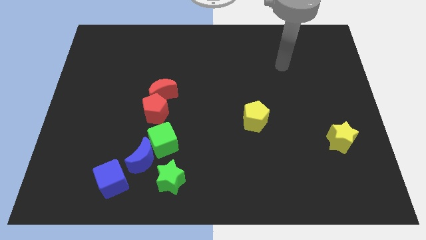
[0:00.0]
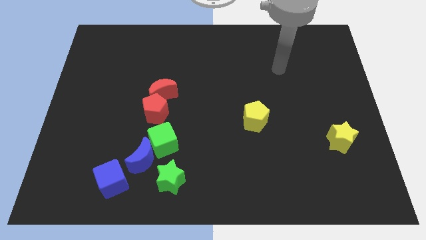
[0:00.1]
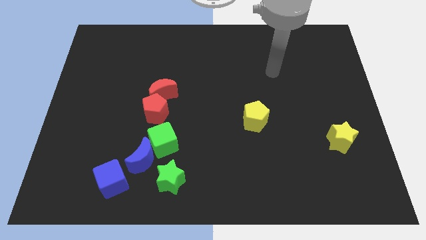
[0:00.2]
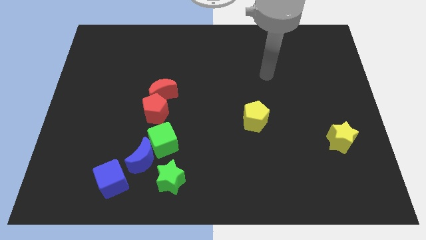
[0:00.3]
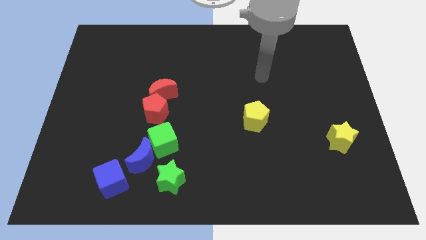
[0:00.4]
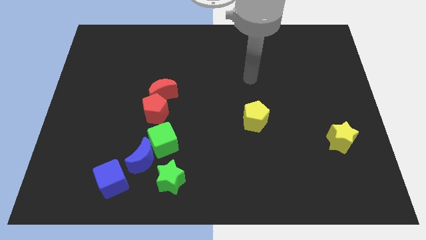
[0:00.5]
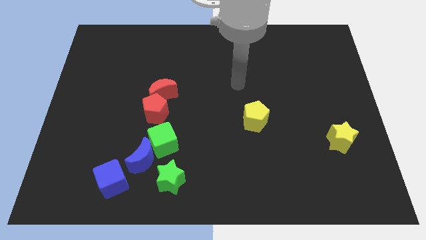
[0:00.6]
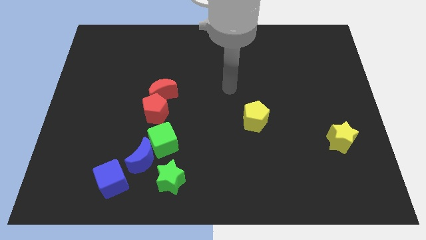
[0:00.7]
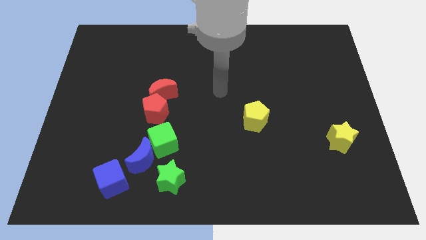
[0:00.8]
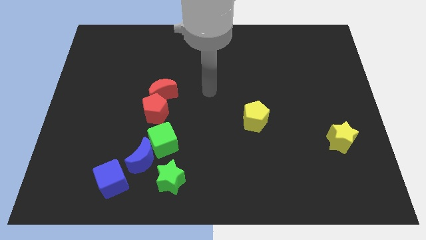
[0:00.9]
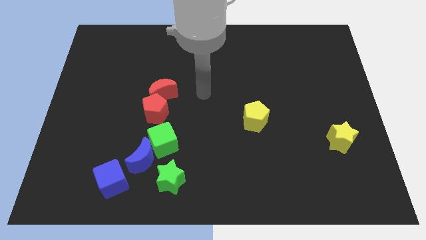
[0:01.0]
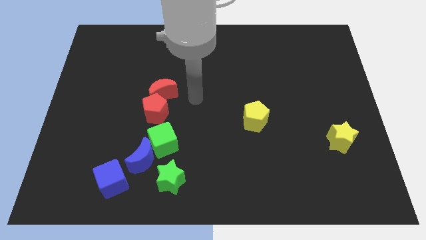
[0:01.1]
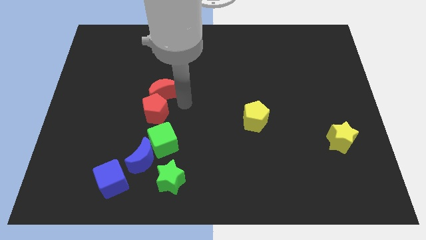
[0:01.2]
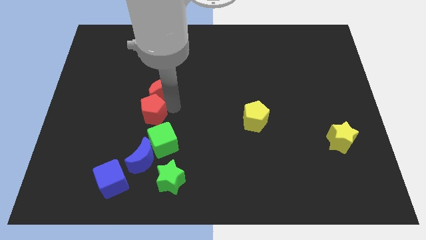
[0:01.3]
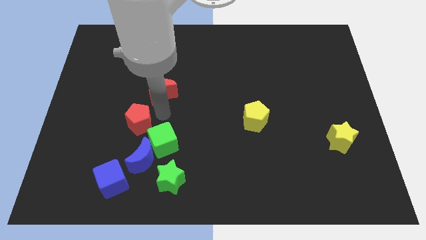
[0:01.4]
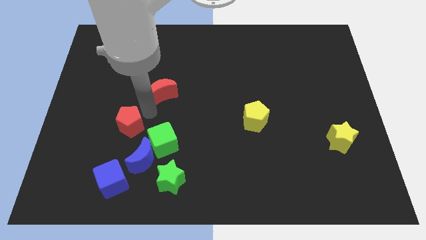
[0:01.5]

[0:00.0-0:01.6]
separate the red moon from the red pentagon

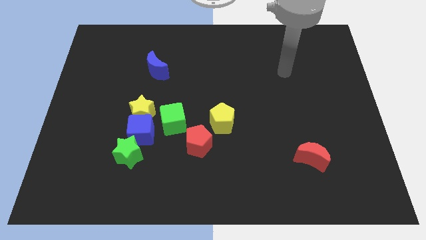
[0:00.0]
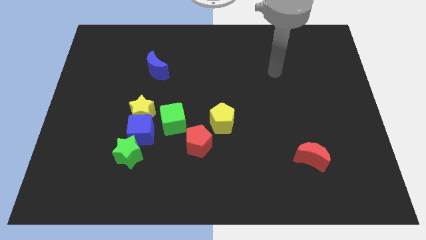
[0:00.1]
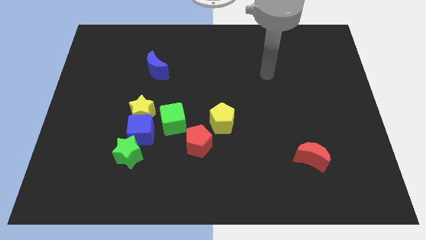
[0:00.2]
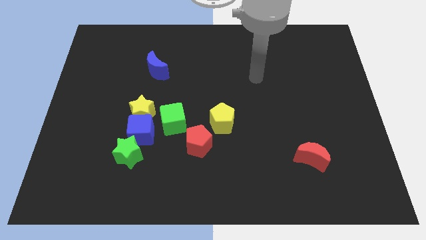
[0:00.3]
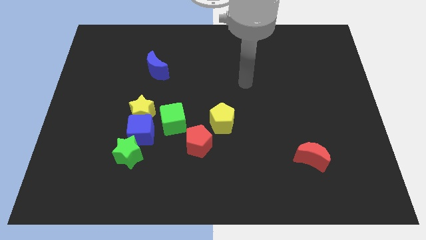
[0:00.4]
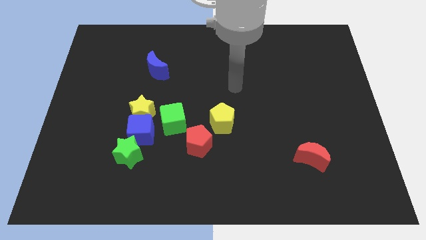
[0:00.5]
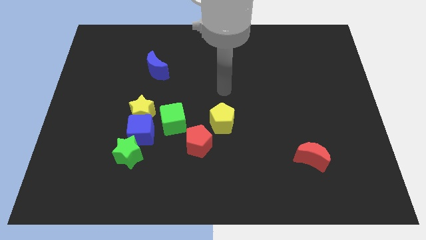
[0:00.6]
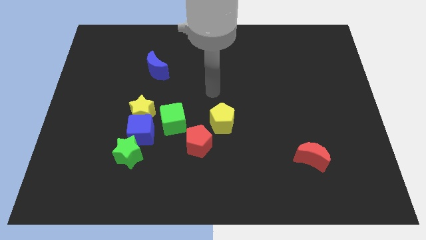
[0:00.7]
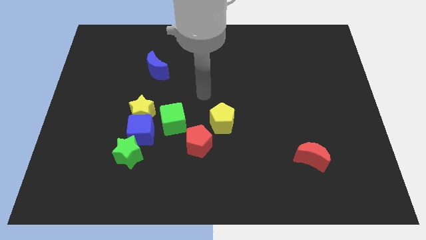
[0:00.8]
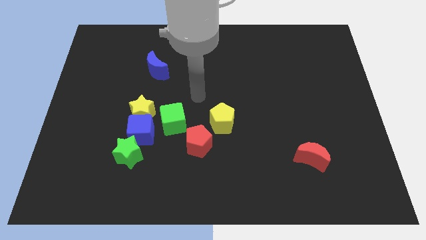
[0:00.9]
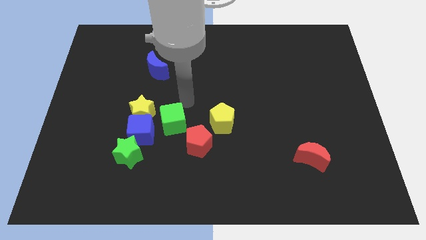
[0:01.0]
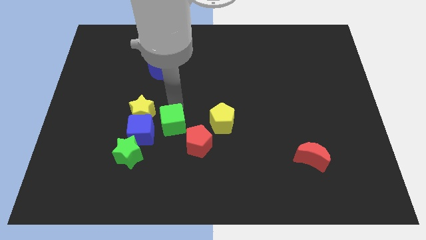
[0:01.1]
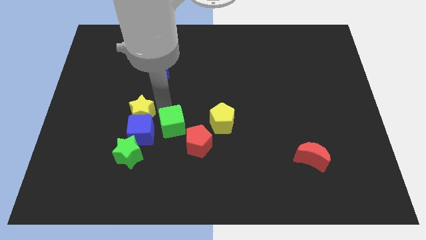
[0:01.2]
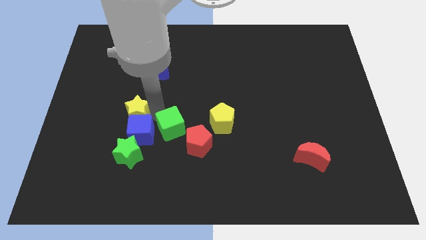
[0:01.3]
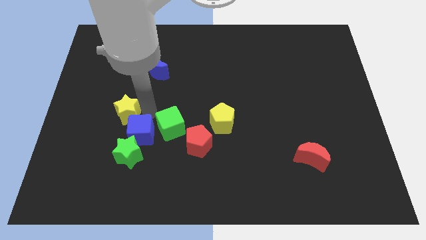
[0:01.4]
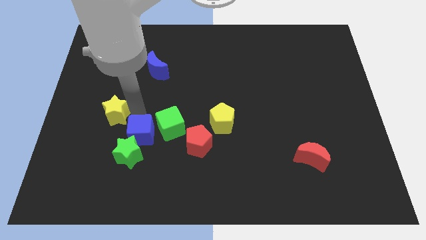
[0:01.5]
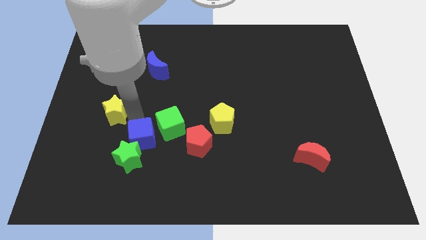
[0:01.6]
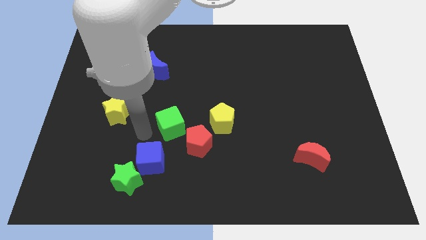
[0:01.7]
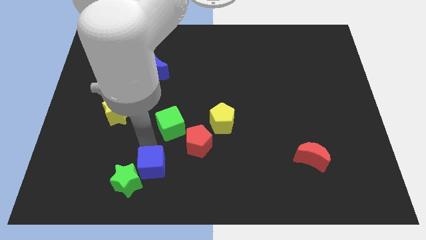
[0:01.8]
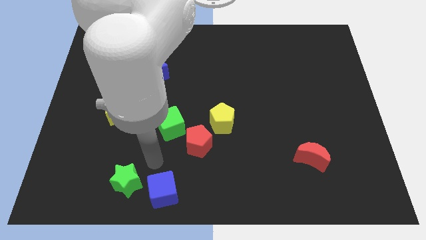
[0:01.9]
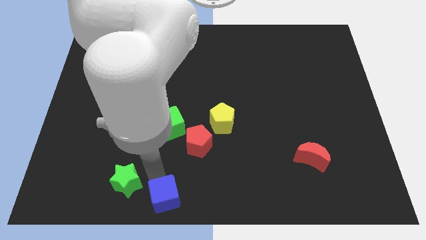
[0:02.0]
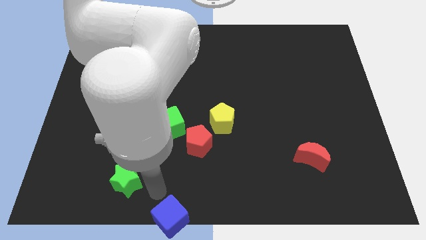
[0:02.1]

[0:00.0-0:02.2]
pull the green star apart from the blue cube

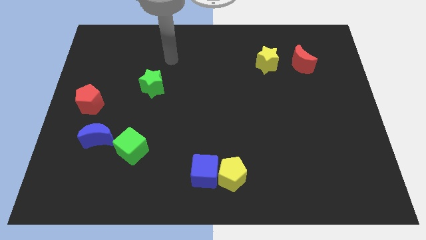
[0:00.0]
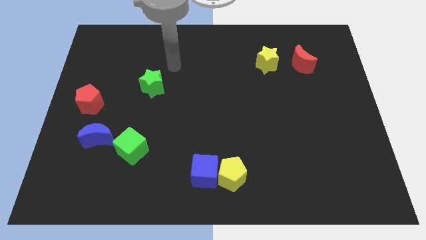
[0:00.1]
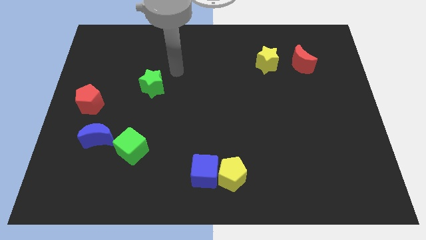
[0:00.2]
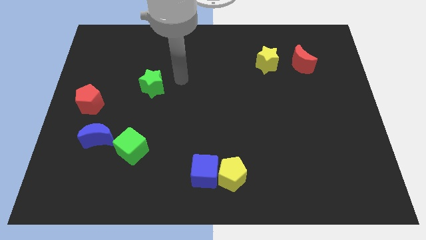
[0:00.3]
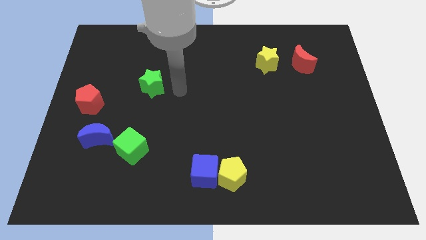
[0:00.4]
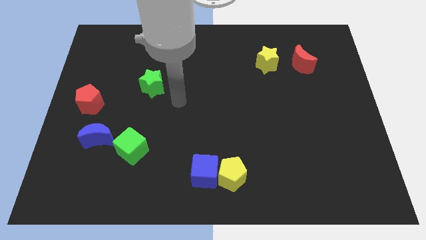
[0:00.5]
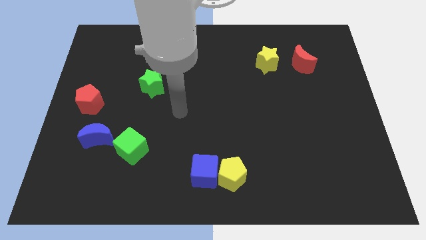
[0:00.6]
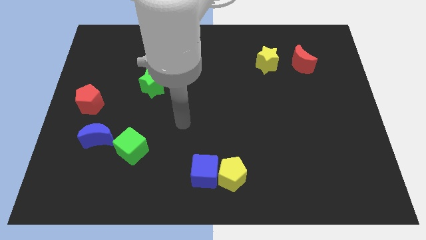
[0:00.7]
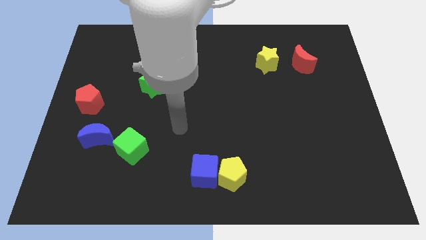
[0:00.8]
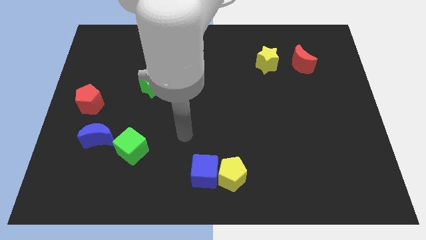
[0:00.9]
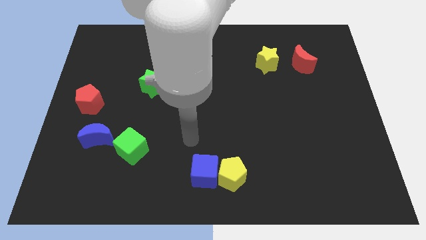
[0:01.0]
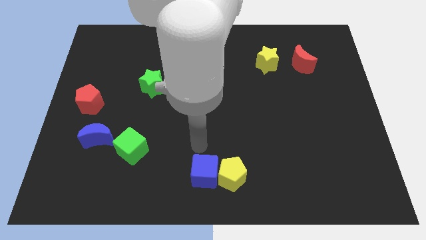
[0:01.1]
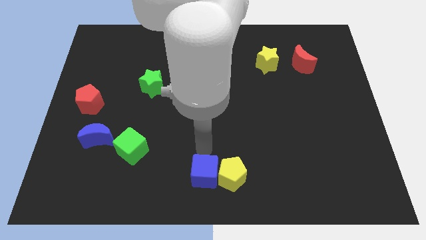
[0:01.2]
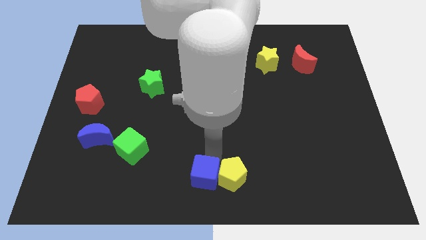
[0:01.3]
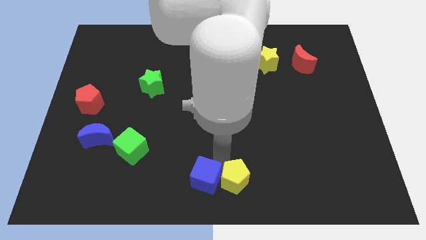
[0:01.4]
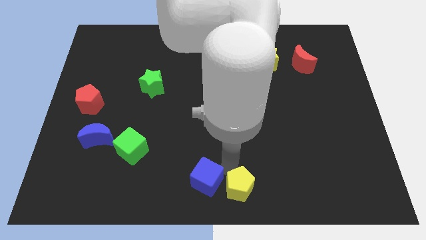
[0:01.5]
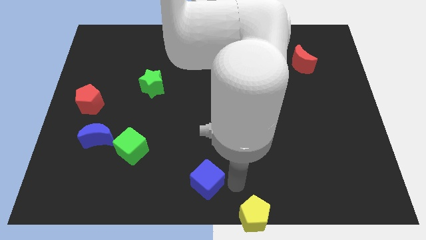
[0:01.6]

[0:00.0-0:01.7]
pull the blue cube apart from the yellow pentagon

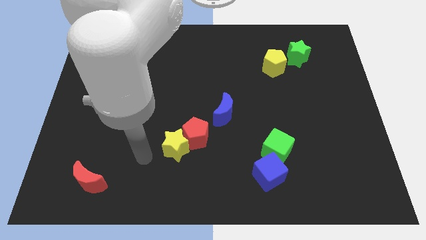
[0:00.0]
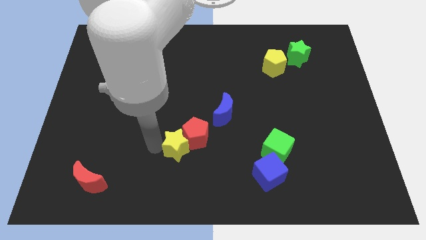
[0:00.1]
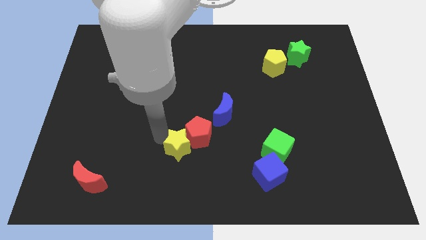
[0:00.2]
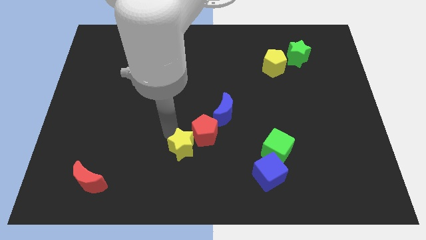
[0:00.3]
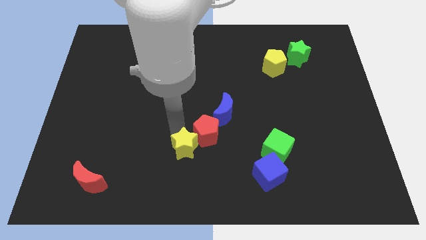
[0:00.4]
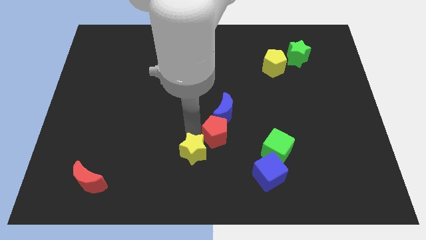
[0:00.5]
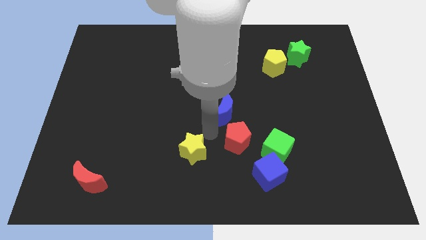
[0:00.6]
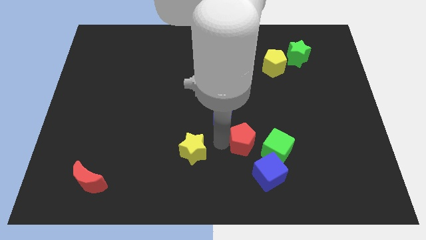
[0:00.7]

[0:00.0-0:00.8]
separate the yellow star from the red pentagon

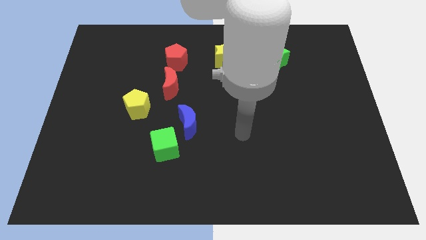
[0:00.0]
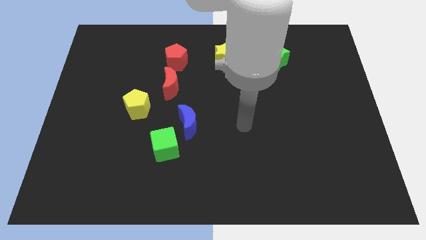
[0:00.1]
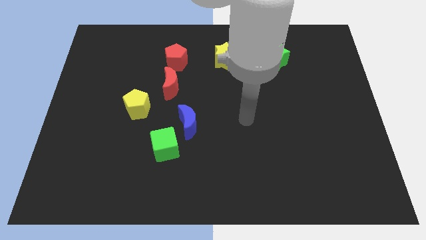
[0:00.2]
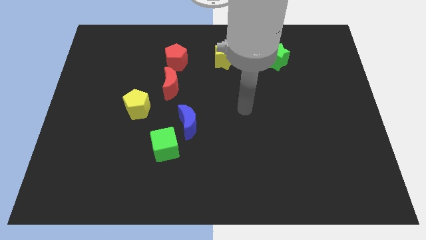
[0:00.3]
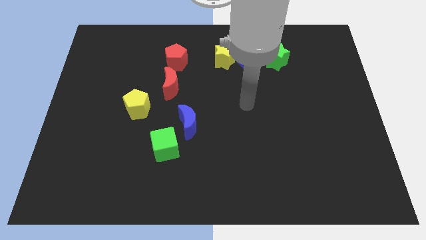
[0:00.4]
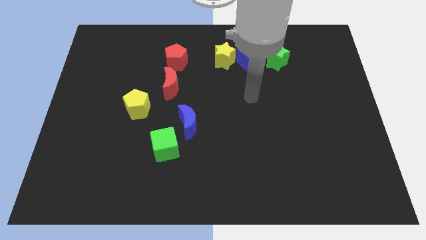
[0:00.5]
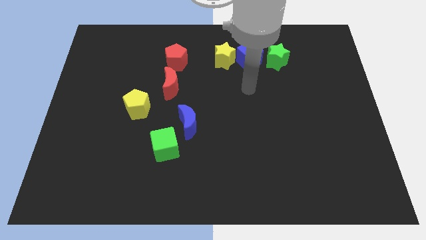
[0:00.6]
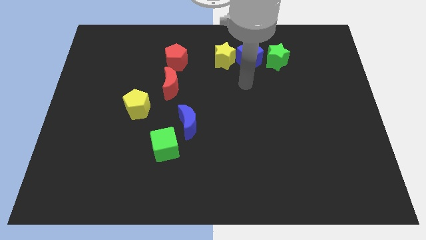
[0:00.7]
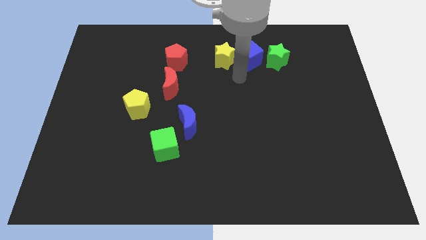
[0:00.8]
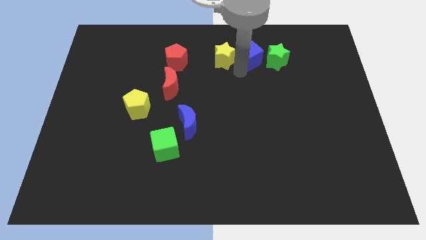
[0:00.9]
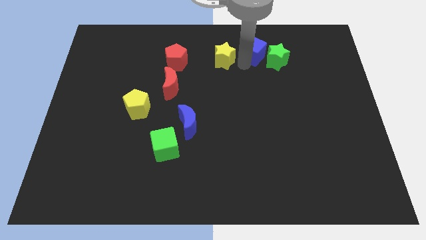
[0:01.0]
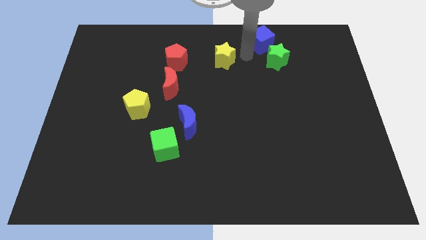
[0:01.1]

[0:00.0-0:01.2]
pull the yellow star apart from the blue cube

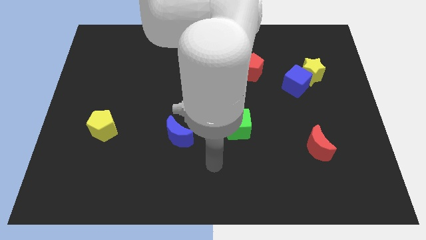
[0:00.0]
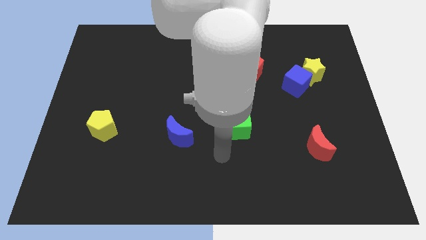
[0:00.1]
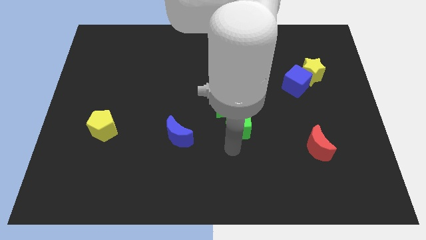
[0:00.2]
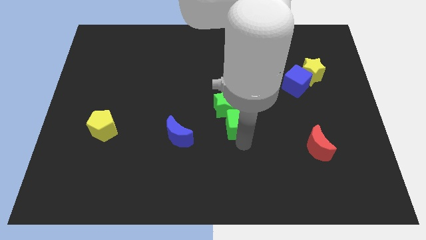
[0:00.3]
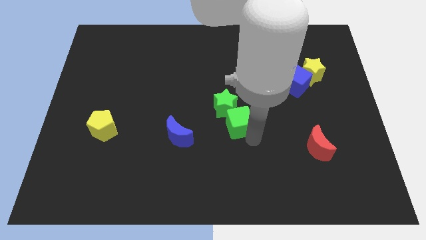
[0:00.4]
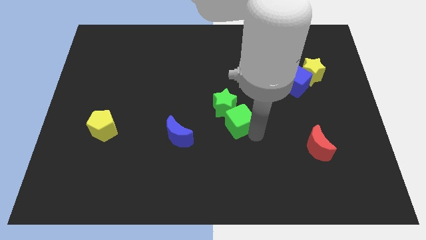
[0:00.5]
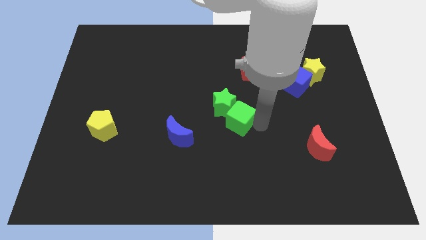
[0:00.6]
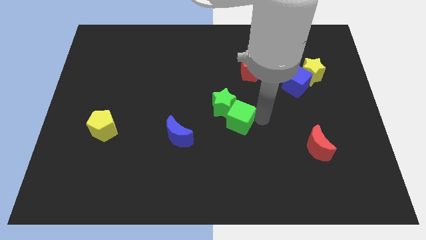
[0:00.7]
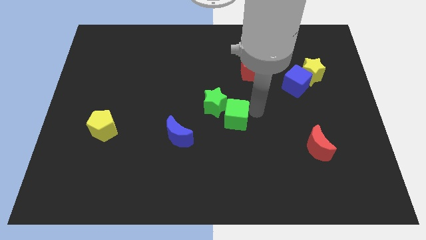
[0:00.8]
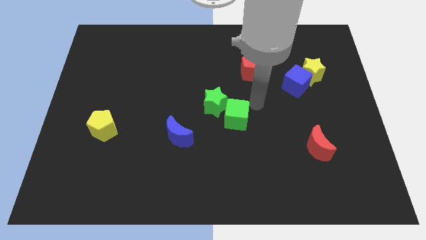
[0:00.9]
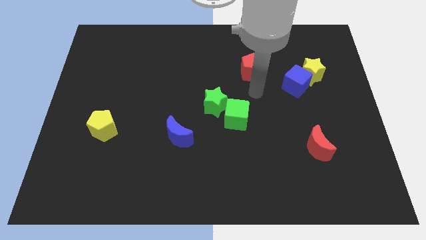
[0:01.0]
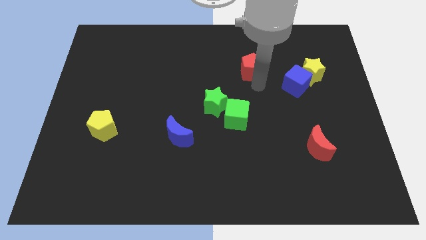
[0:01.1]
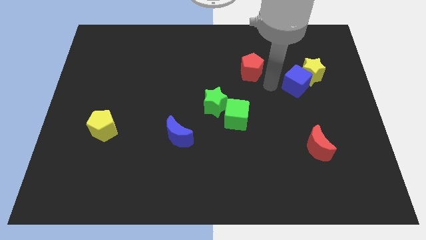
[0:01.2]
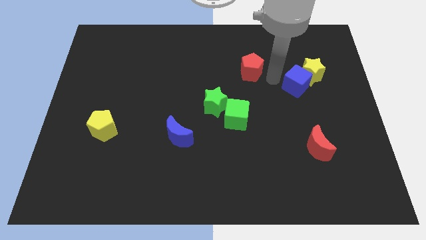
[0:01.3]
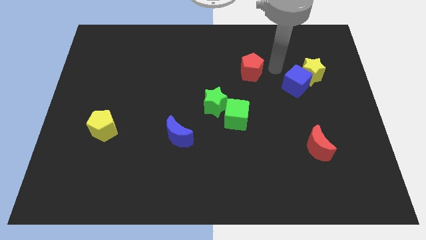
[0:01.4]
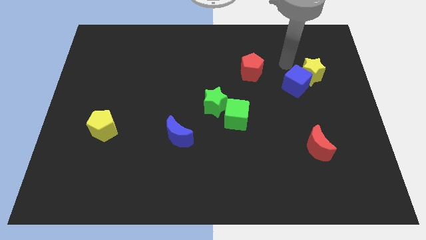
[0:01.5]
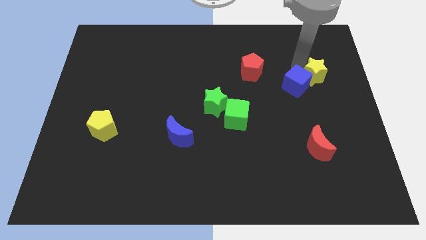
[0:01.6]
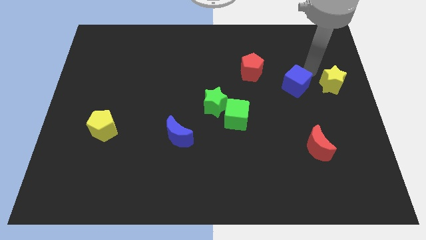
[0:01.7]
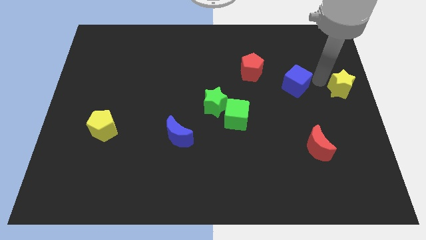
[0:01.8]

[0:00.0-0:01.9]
move the blue cube away from the yellow star
